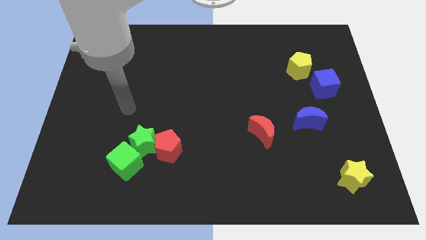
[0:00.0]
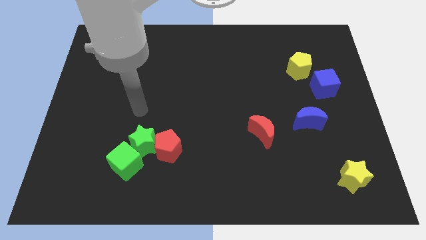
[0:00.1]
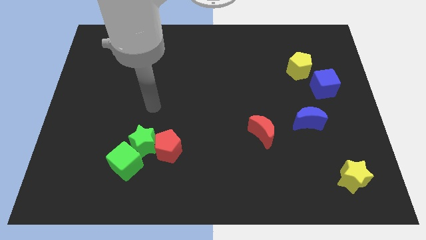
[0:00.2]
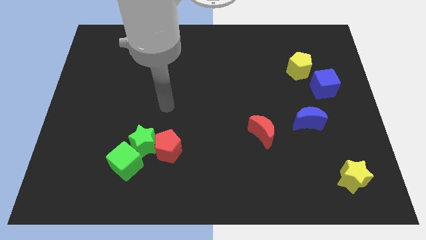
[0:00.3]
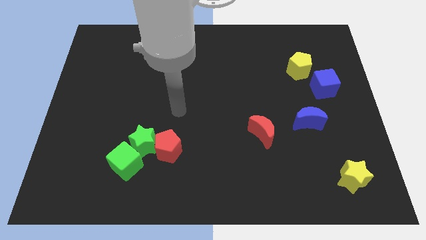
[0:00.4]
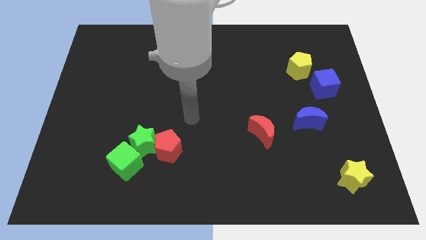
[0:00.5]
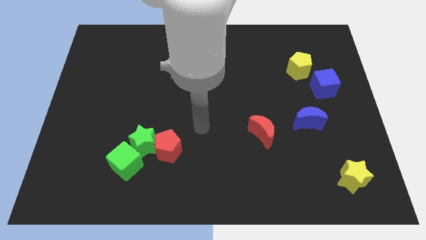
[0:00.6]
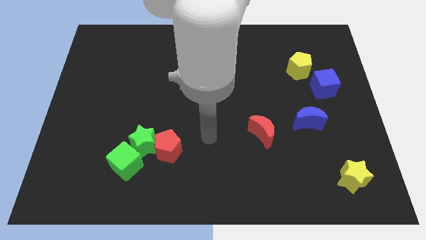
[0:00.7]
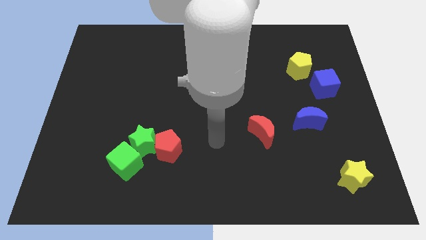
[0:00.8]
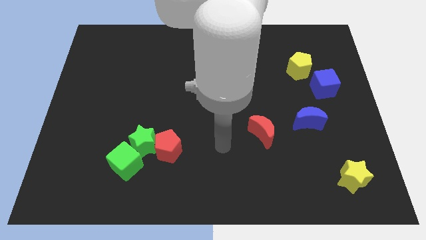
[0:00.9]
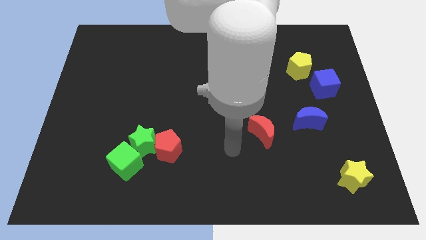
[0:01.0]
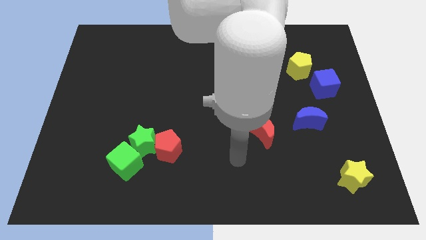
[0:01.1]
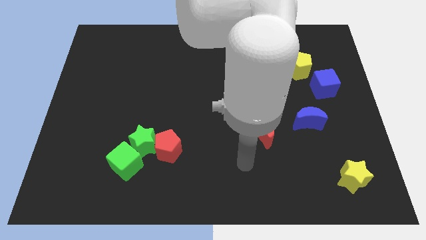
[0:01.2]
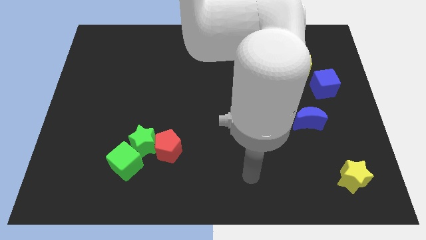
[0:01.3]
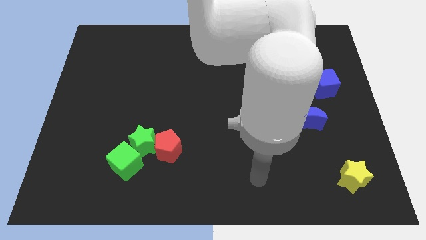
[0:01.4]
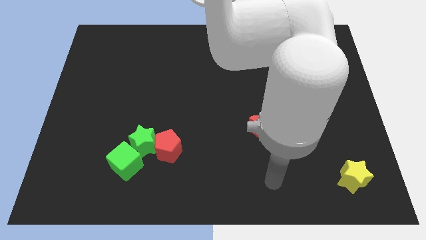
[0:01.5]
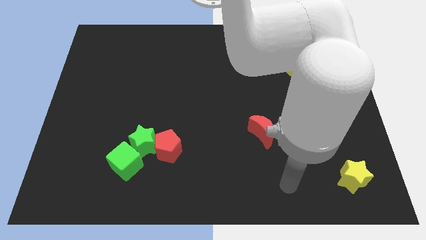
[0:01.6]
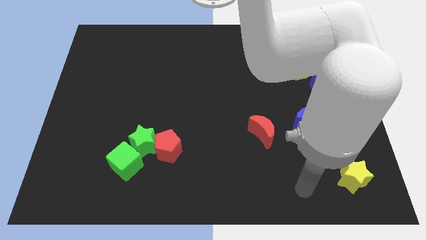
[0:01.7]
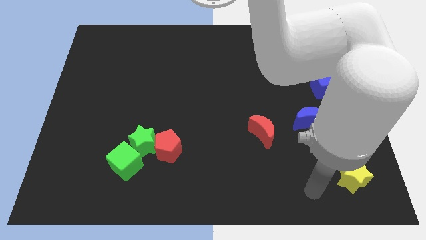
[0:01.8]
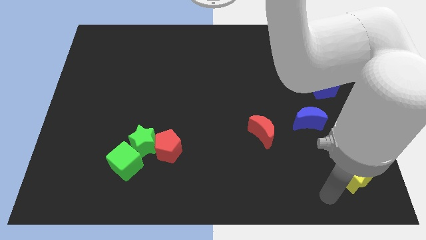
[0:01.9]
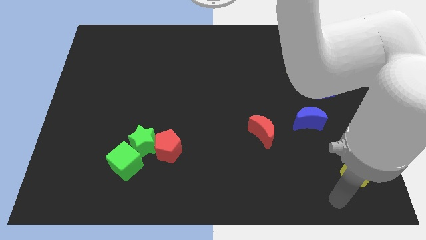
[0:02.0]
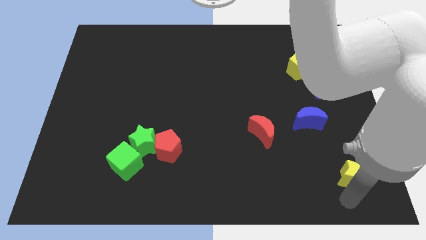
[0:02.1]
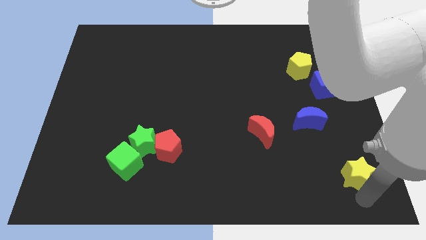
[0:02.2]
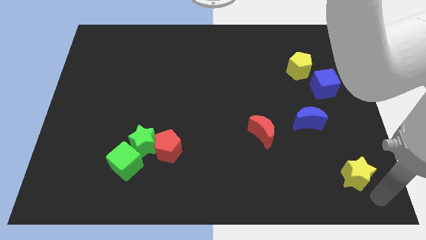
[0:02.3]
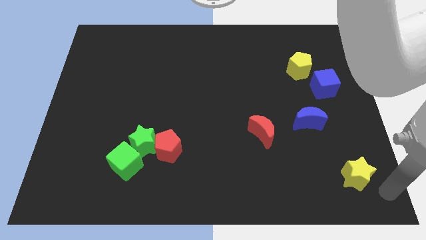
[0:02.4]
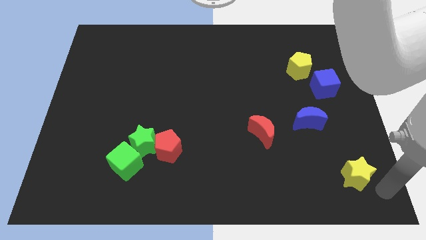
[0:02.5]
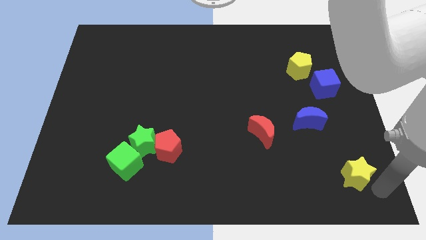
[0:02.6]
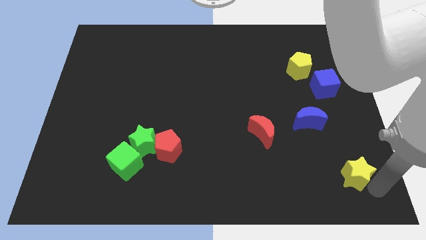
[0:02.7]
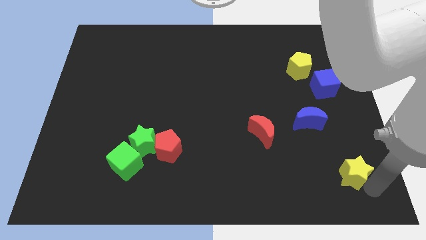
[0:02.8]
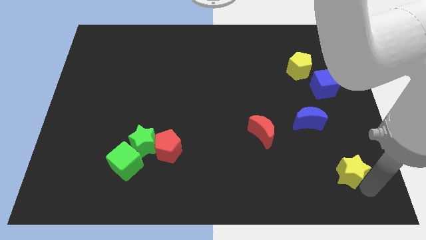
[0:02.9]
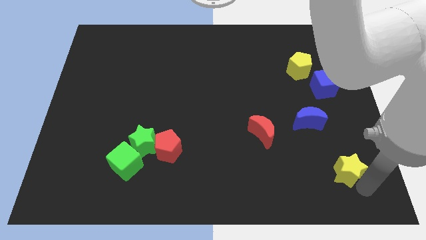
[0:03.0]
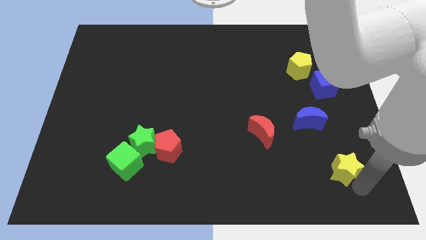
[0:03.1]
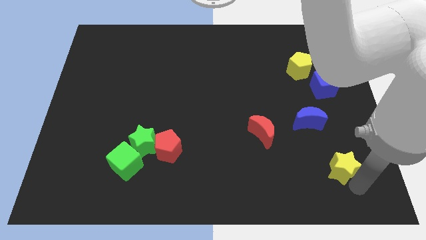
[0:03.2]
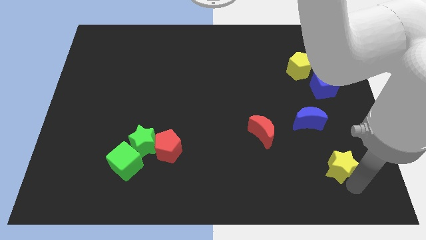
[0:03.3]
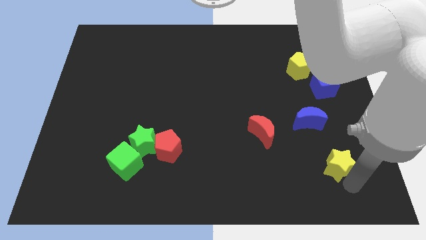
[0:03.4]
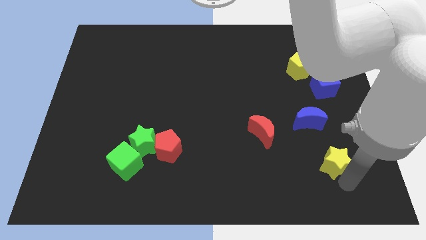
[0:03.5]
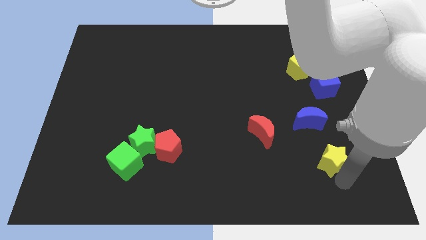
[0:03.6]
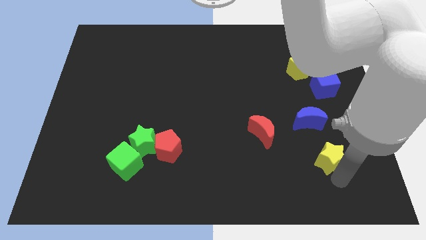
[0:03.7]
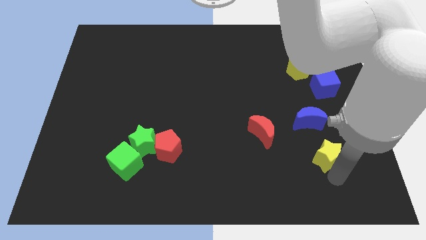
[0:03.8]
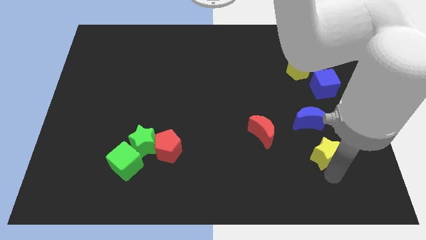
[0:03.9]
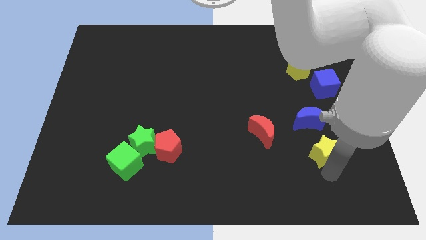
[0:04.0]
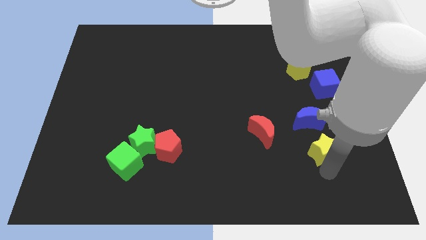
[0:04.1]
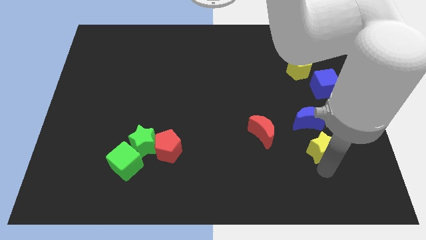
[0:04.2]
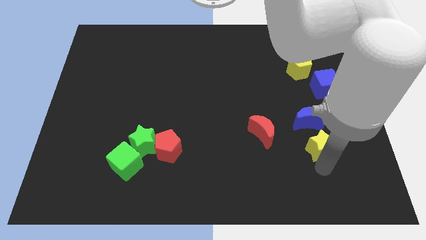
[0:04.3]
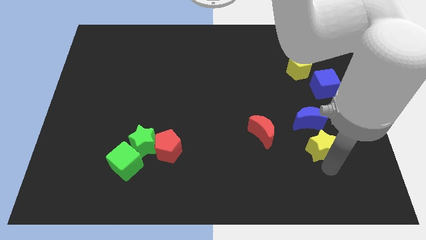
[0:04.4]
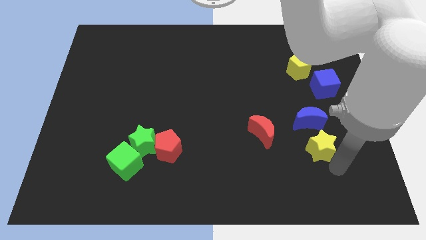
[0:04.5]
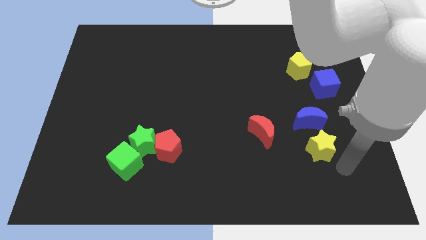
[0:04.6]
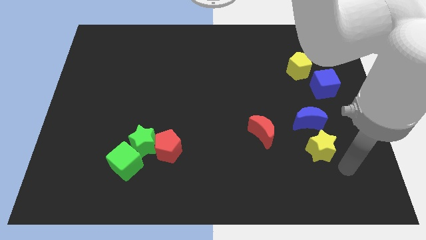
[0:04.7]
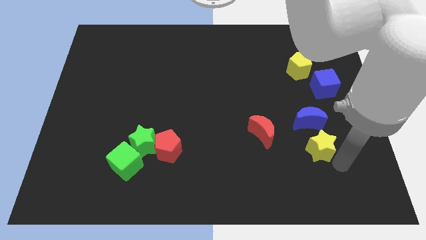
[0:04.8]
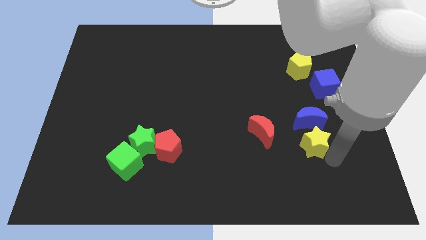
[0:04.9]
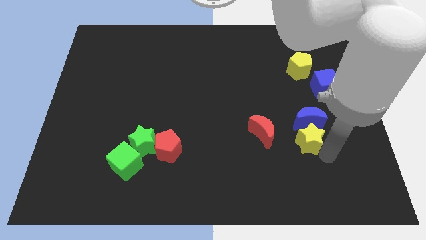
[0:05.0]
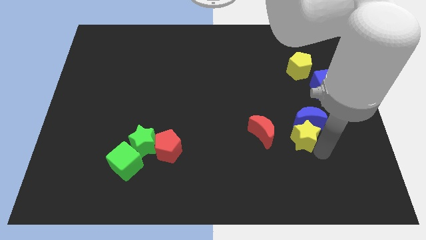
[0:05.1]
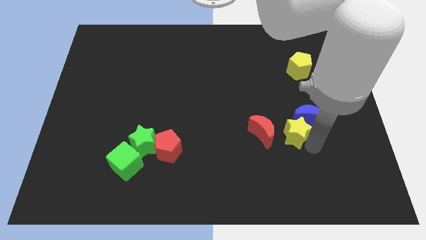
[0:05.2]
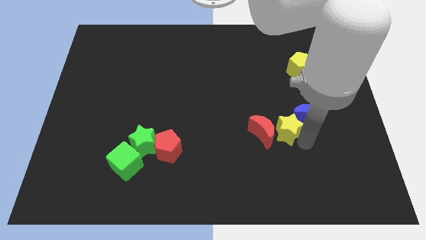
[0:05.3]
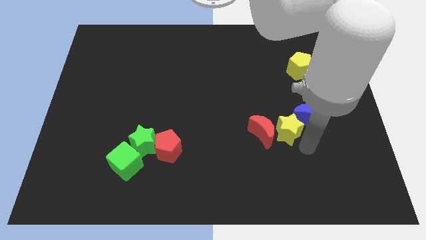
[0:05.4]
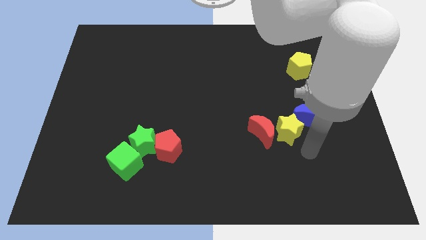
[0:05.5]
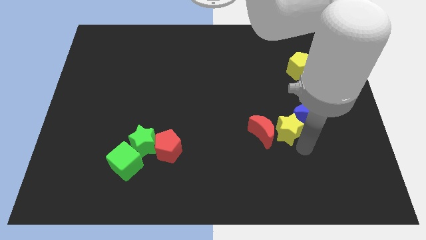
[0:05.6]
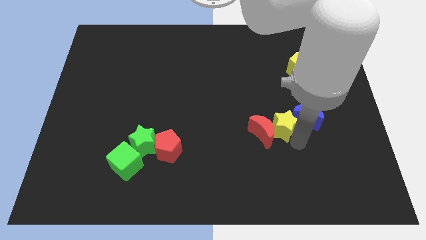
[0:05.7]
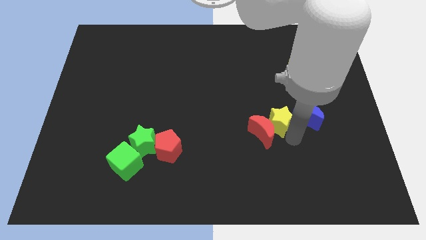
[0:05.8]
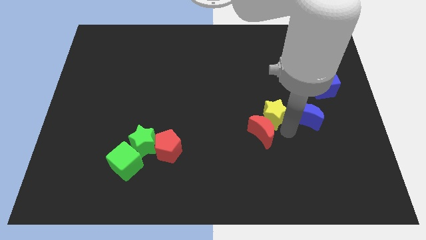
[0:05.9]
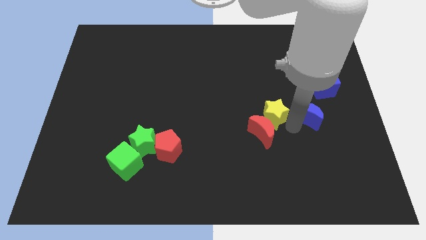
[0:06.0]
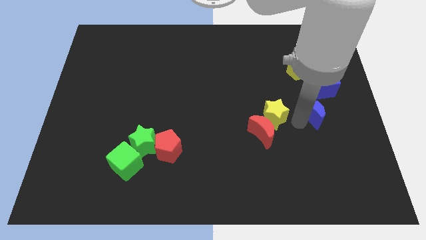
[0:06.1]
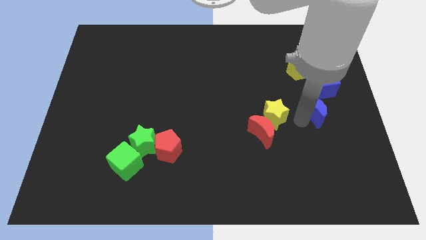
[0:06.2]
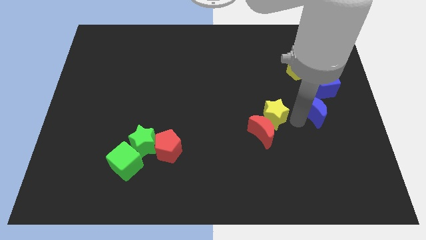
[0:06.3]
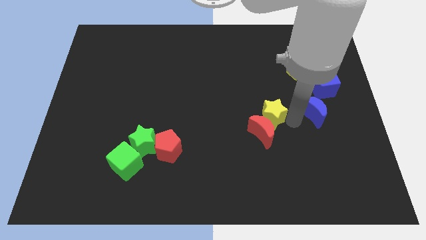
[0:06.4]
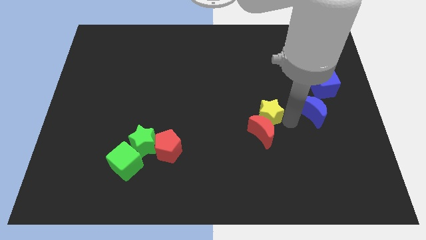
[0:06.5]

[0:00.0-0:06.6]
put the yellow star to the top left side of the red moon

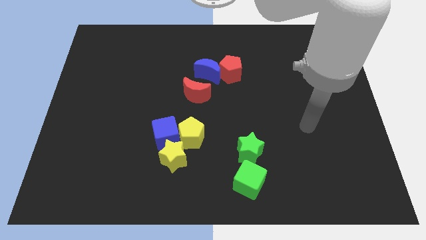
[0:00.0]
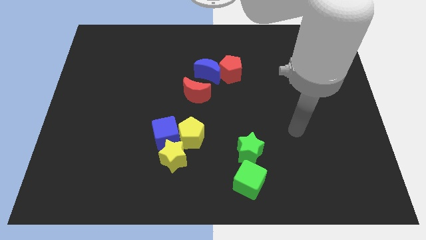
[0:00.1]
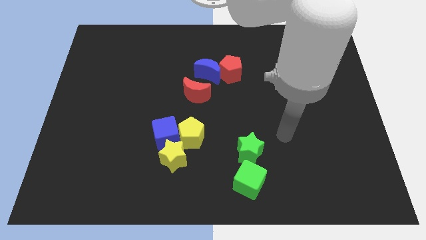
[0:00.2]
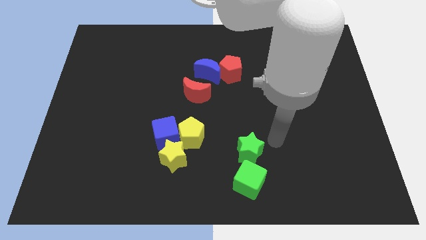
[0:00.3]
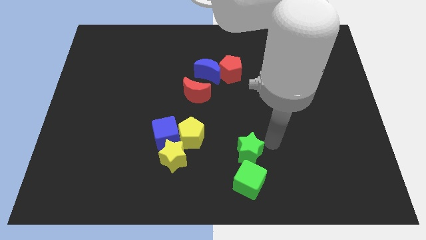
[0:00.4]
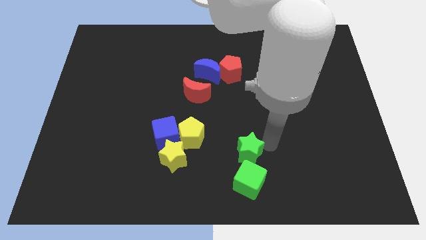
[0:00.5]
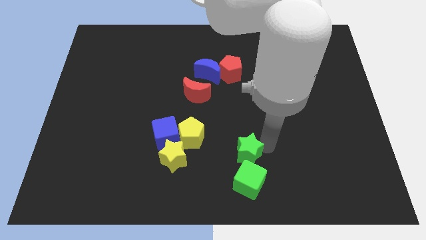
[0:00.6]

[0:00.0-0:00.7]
move the green star to the top left of the green cube
